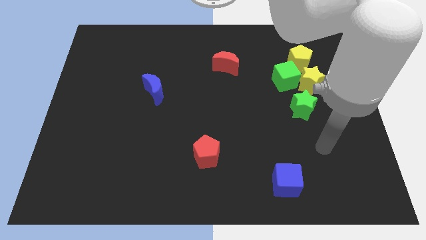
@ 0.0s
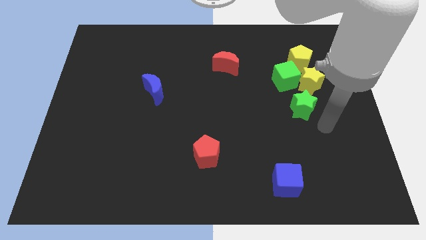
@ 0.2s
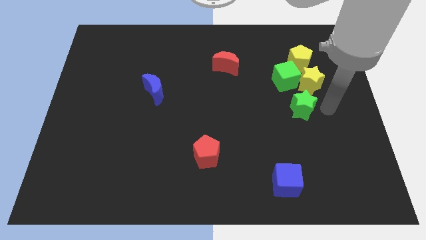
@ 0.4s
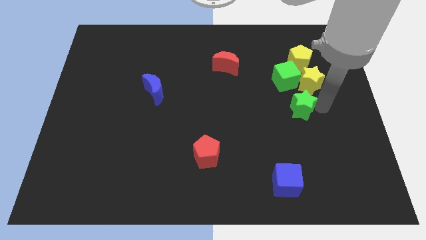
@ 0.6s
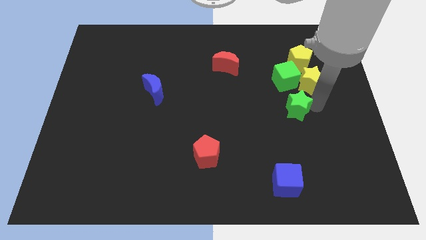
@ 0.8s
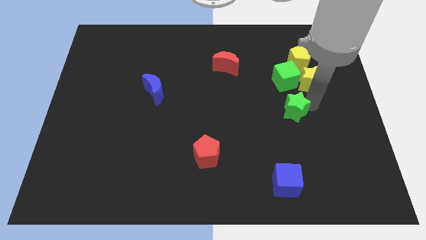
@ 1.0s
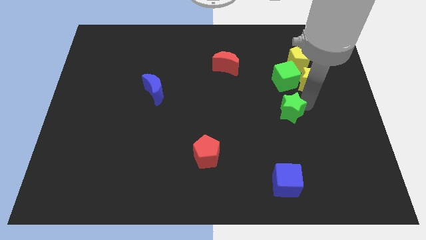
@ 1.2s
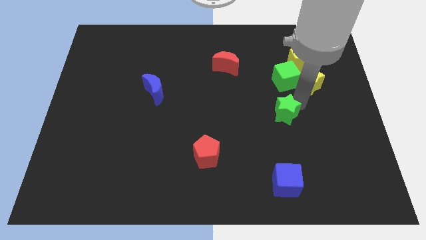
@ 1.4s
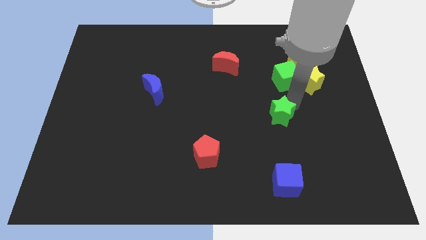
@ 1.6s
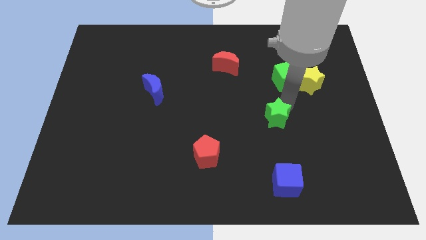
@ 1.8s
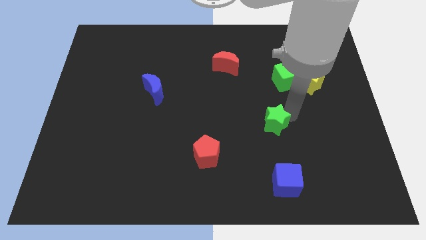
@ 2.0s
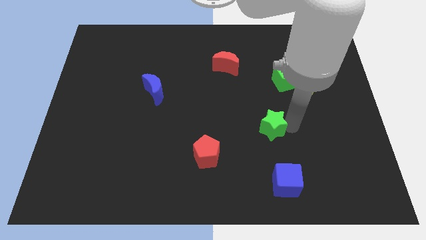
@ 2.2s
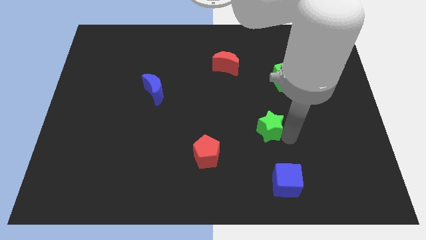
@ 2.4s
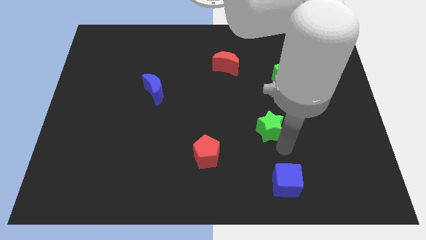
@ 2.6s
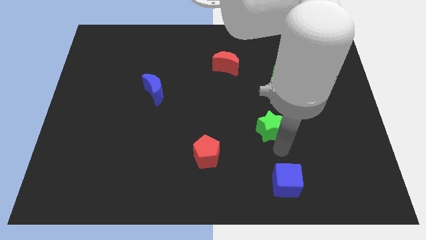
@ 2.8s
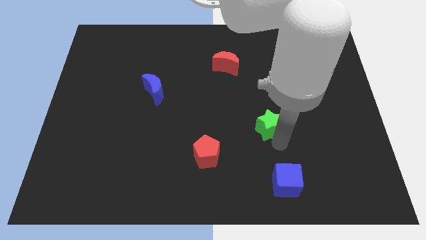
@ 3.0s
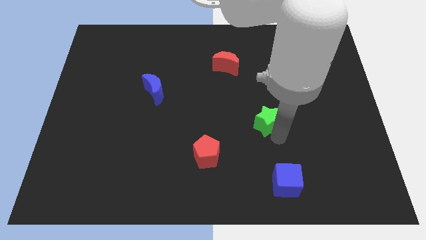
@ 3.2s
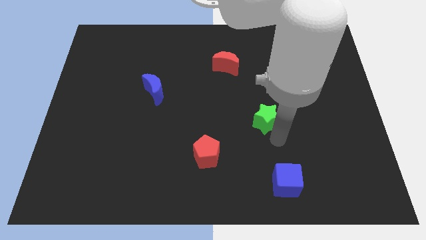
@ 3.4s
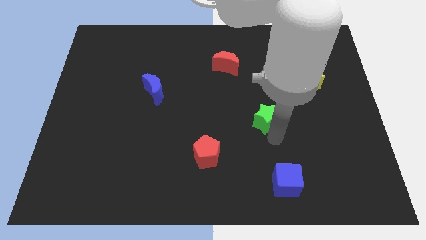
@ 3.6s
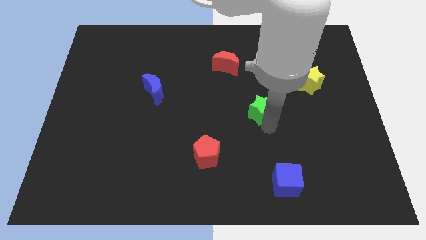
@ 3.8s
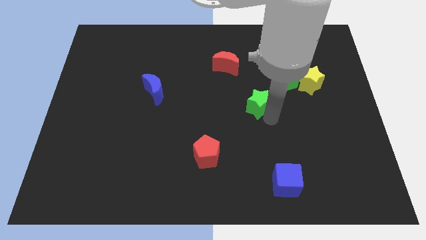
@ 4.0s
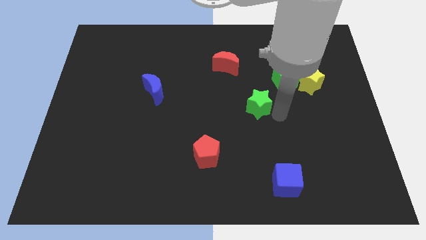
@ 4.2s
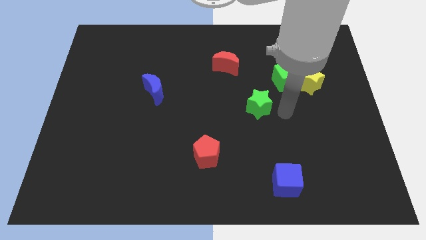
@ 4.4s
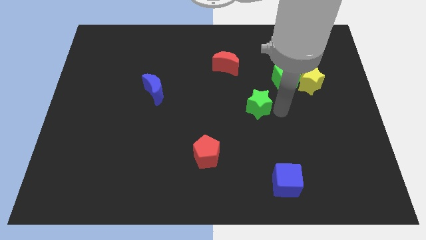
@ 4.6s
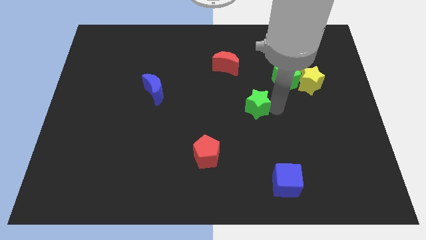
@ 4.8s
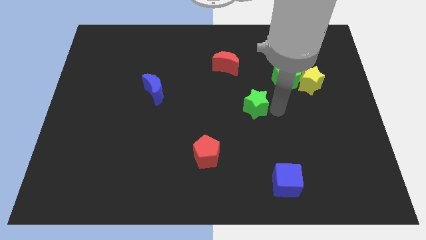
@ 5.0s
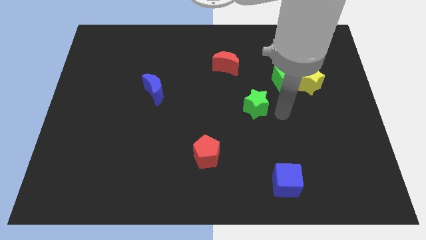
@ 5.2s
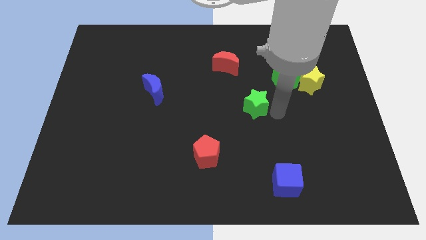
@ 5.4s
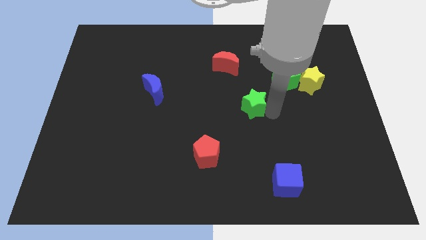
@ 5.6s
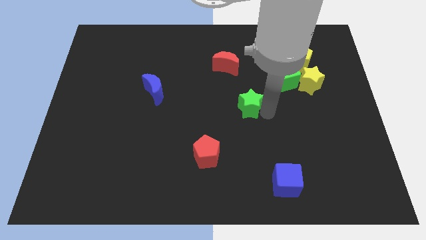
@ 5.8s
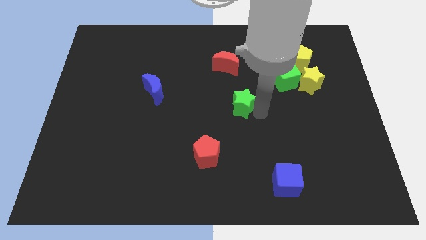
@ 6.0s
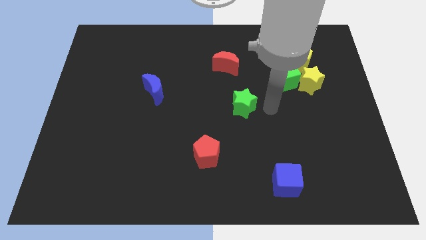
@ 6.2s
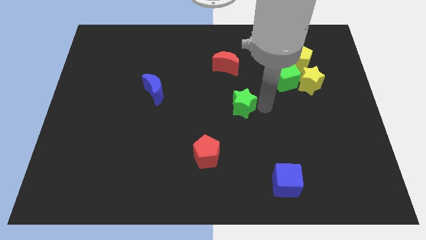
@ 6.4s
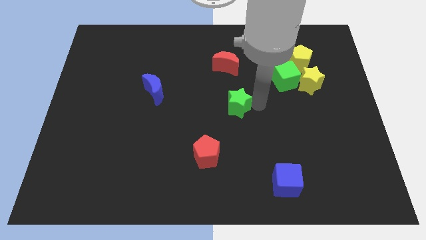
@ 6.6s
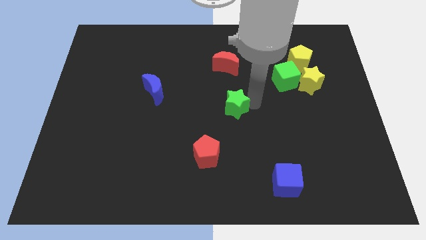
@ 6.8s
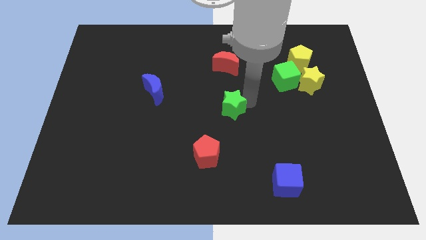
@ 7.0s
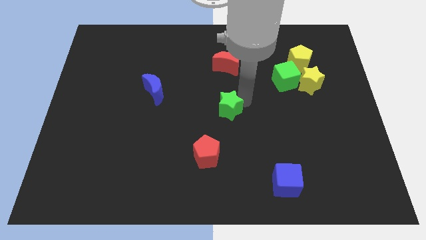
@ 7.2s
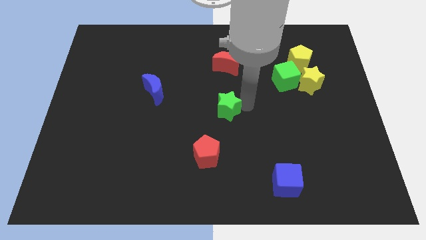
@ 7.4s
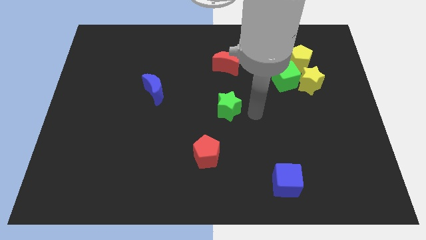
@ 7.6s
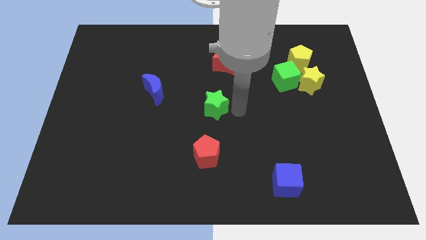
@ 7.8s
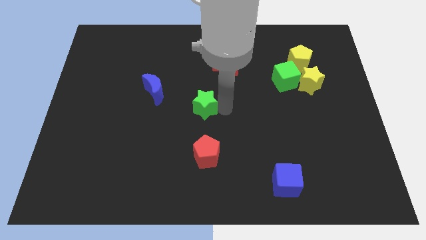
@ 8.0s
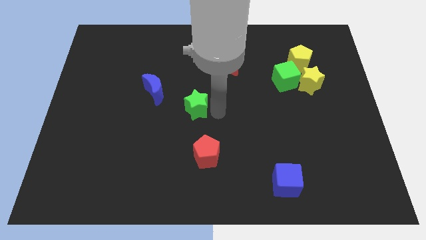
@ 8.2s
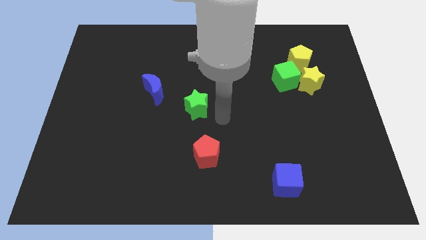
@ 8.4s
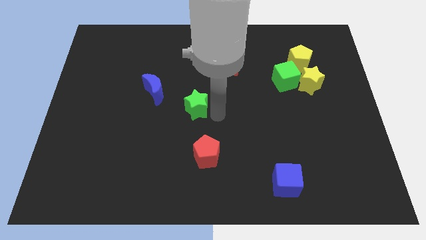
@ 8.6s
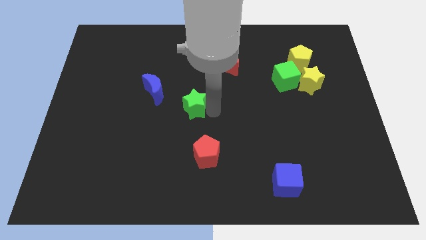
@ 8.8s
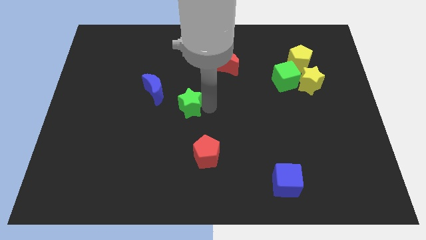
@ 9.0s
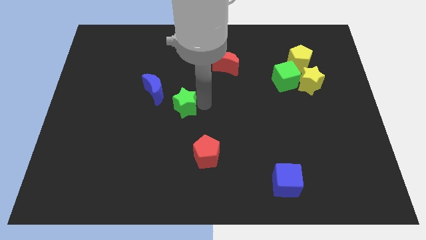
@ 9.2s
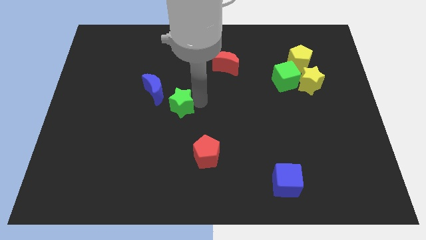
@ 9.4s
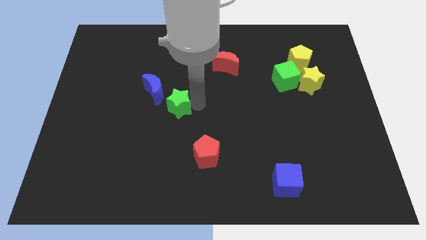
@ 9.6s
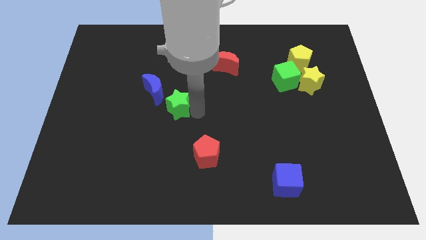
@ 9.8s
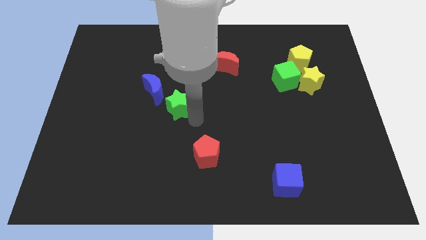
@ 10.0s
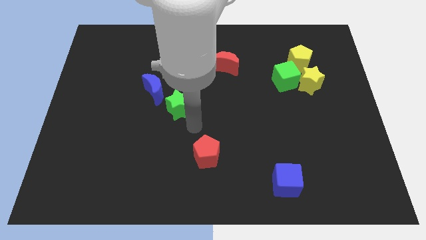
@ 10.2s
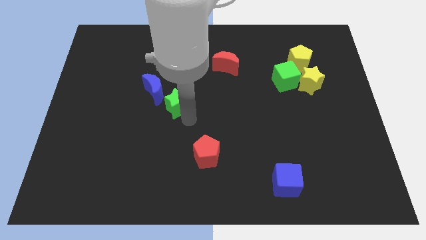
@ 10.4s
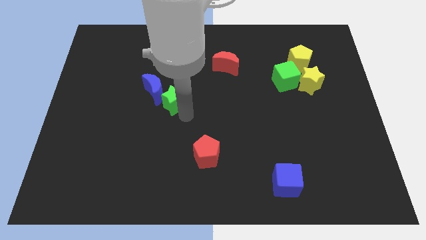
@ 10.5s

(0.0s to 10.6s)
push the green star to the blue moon

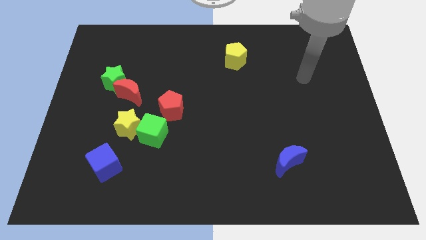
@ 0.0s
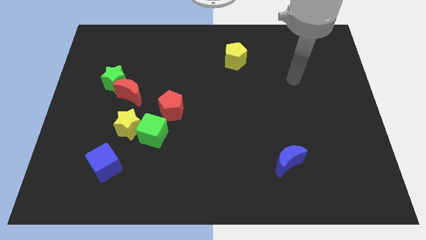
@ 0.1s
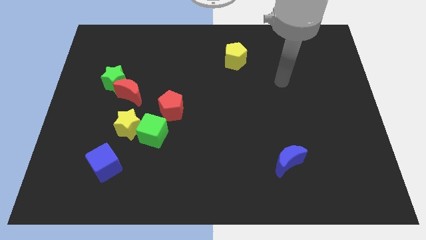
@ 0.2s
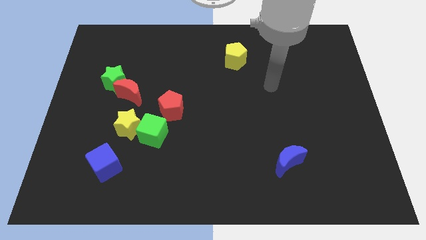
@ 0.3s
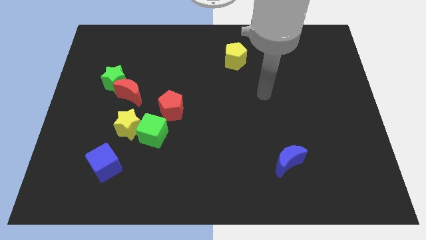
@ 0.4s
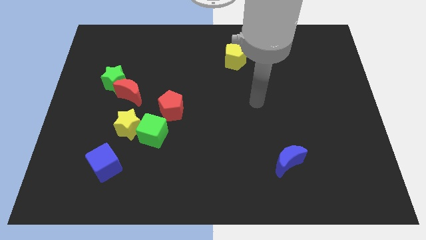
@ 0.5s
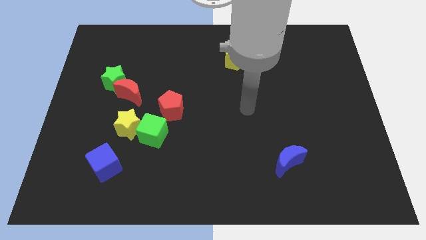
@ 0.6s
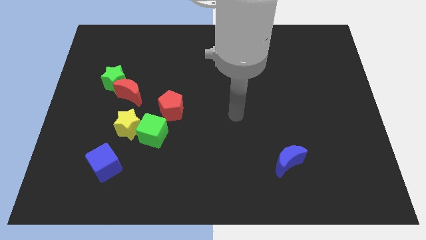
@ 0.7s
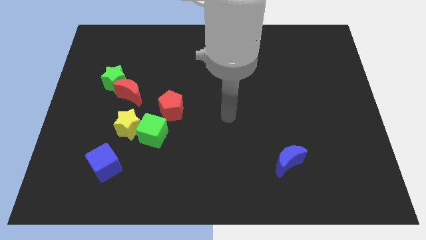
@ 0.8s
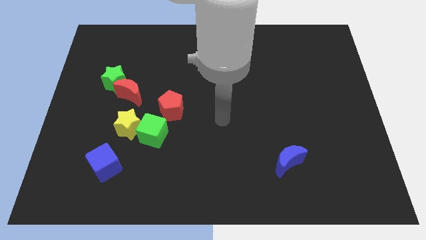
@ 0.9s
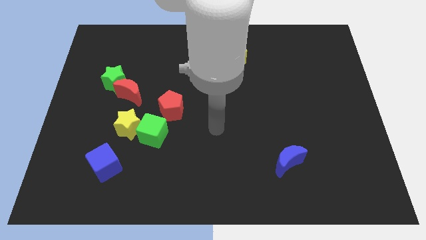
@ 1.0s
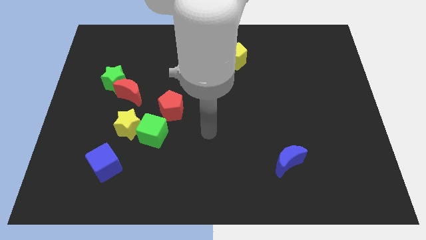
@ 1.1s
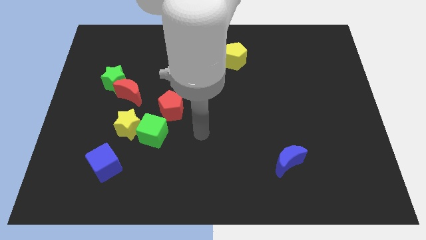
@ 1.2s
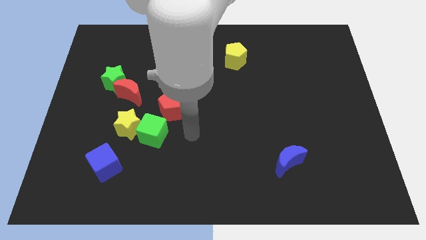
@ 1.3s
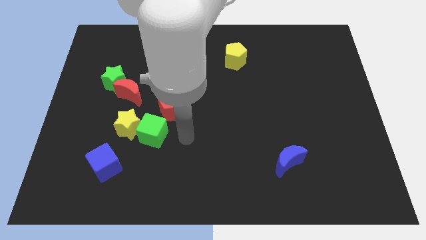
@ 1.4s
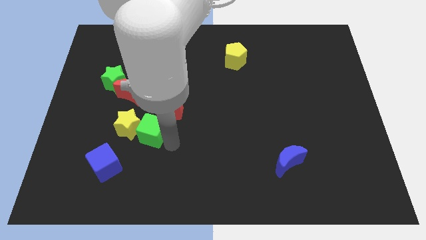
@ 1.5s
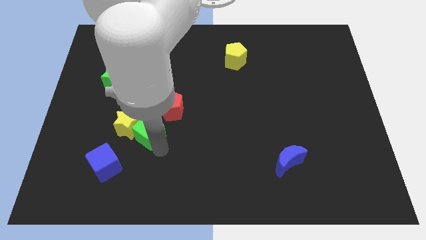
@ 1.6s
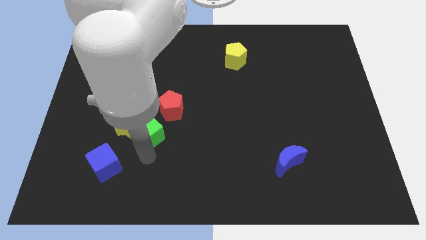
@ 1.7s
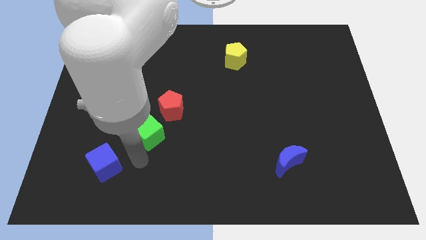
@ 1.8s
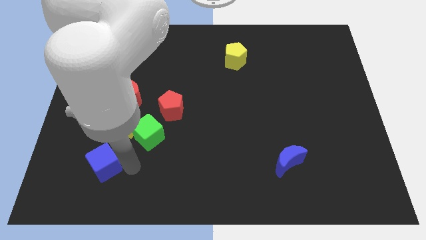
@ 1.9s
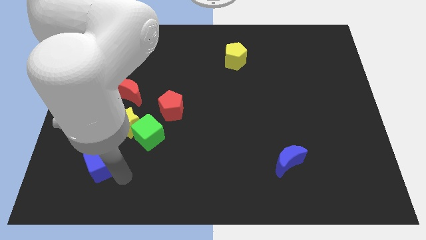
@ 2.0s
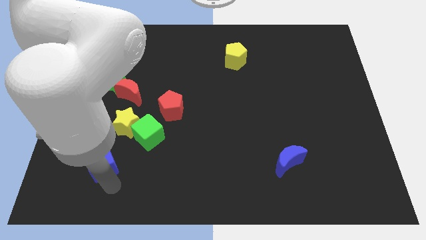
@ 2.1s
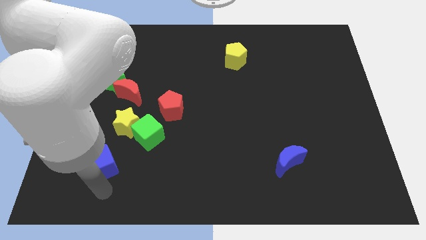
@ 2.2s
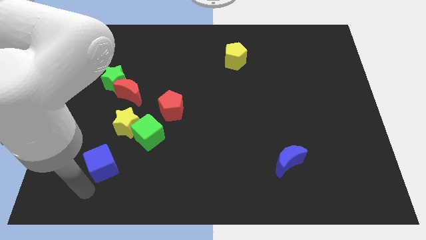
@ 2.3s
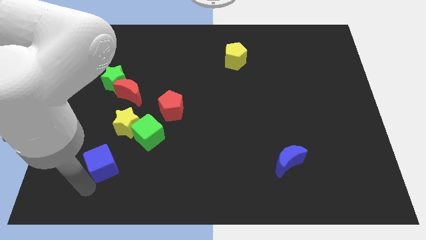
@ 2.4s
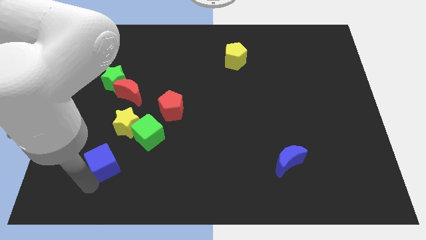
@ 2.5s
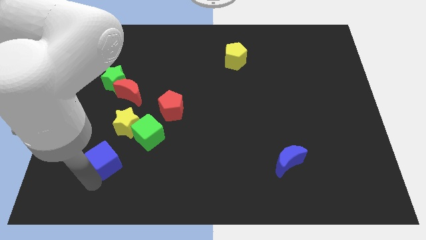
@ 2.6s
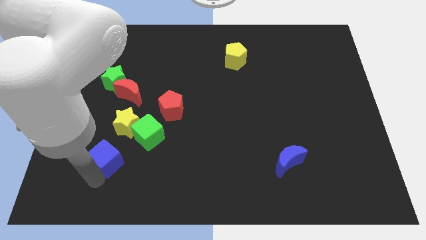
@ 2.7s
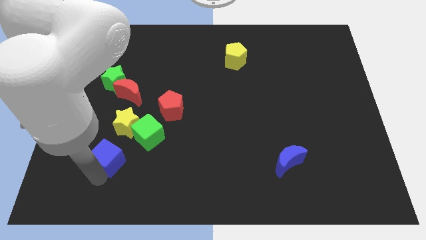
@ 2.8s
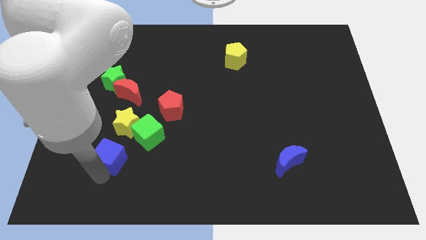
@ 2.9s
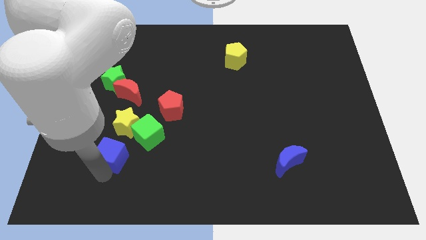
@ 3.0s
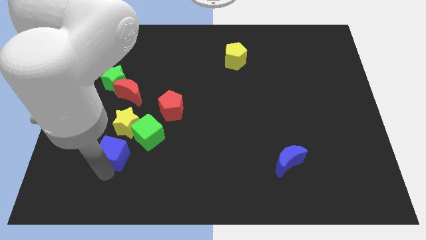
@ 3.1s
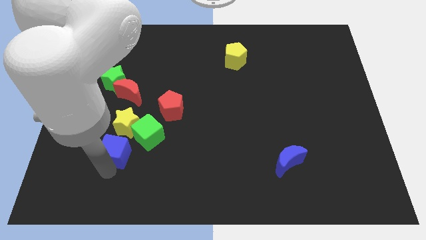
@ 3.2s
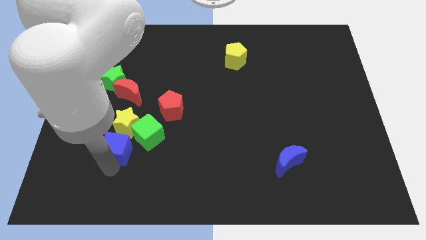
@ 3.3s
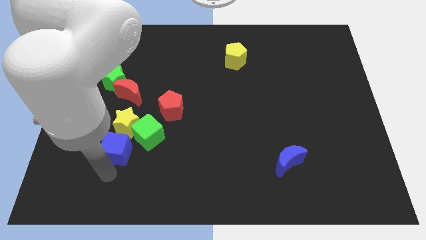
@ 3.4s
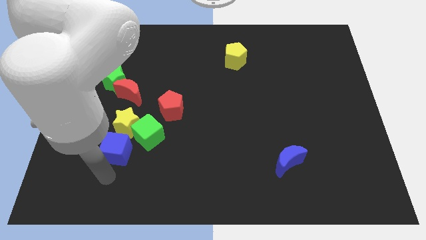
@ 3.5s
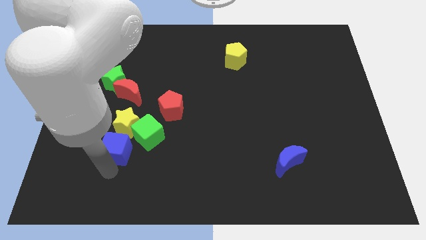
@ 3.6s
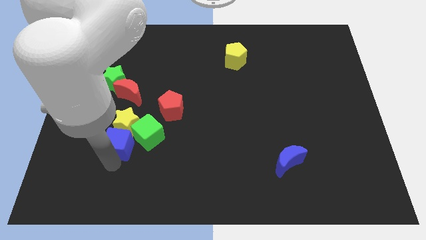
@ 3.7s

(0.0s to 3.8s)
move the blue cube towards the yellow star
